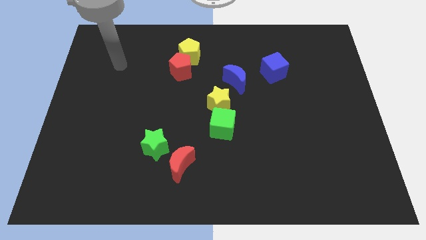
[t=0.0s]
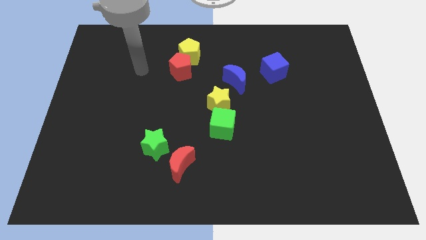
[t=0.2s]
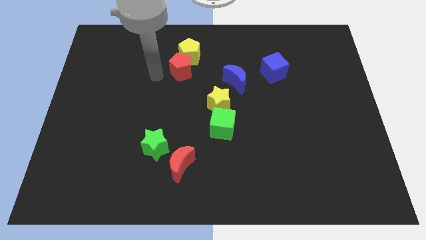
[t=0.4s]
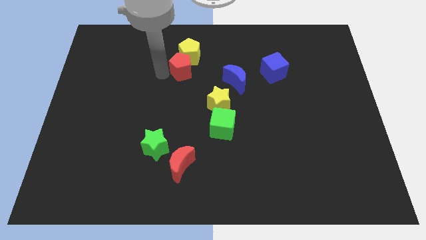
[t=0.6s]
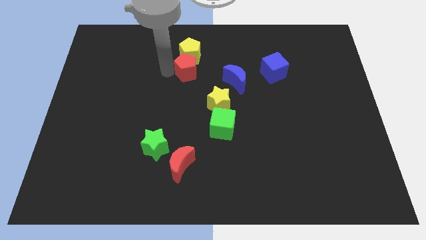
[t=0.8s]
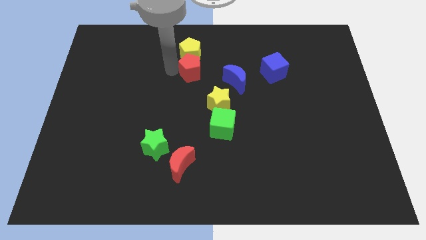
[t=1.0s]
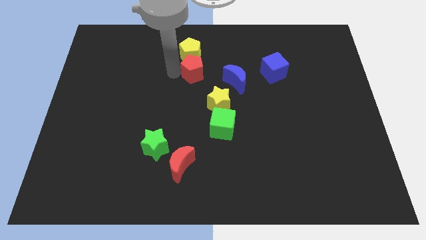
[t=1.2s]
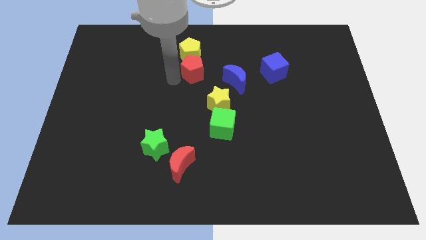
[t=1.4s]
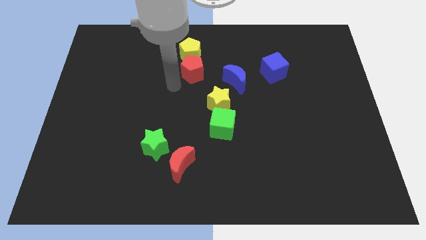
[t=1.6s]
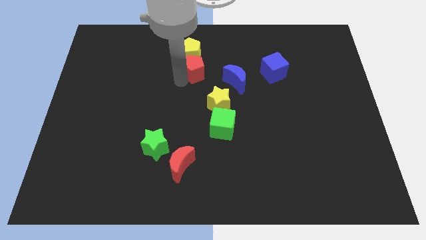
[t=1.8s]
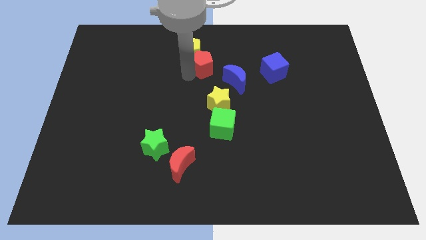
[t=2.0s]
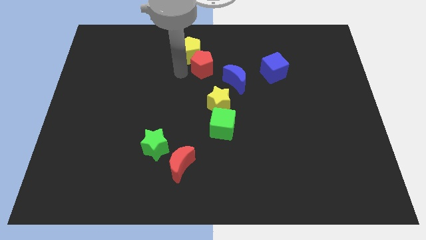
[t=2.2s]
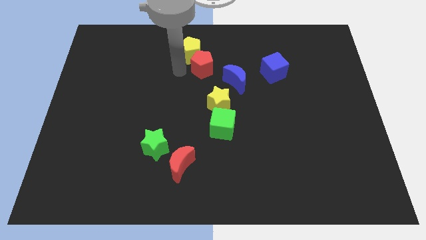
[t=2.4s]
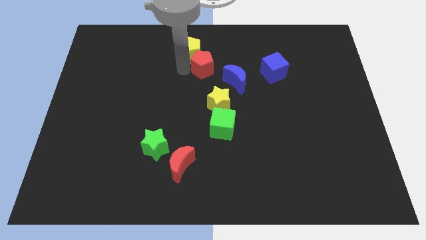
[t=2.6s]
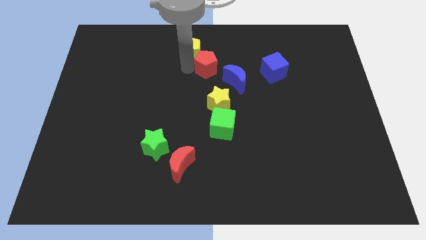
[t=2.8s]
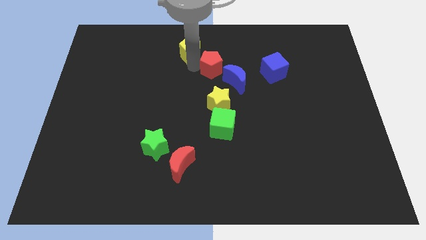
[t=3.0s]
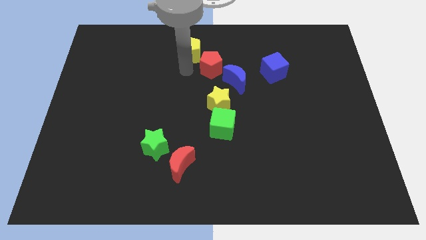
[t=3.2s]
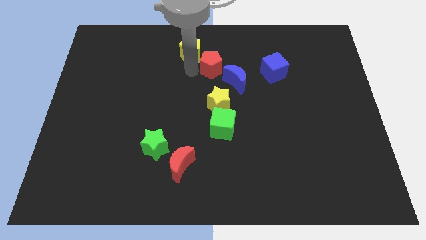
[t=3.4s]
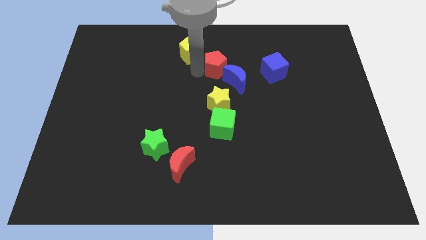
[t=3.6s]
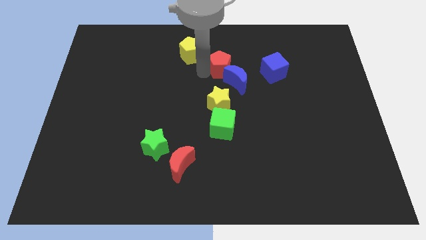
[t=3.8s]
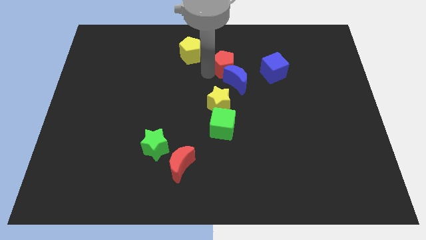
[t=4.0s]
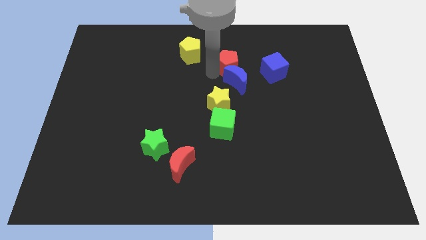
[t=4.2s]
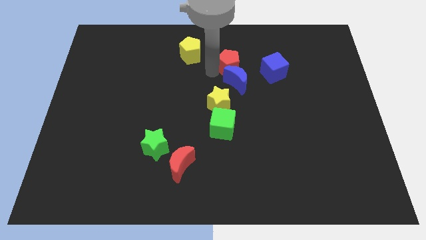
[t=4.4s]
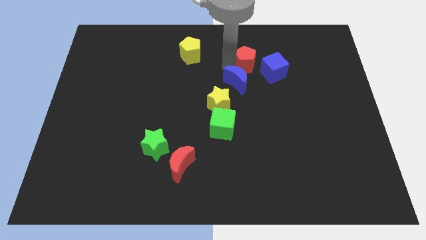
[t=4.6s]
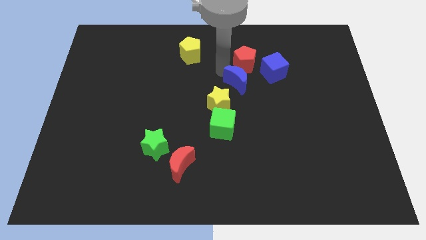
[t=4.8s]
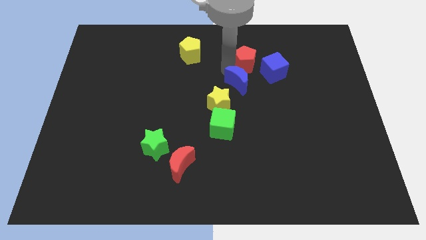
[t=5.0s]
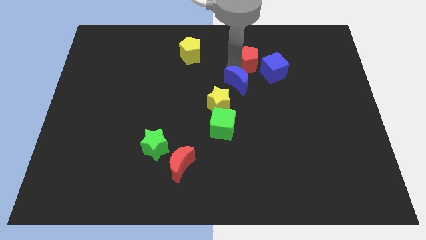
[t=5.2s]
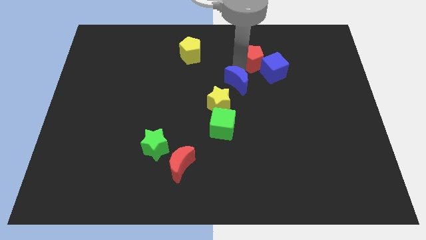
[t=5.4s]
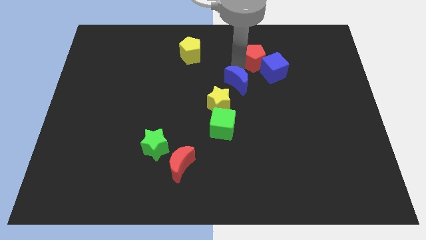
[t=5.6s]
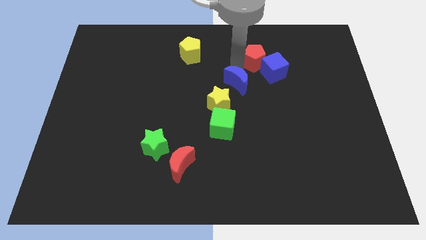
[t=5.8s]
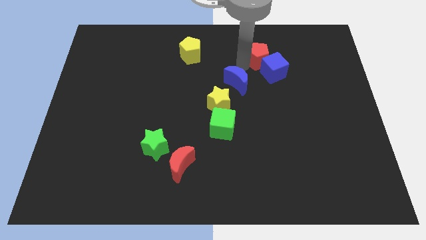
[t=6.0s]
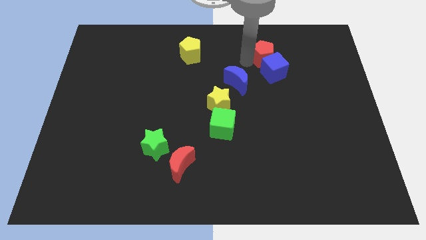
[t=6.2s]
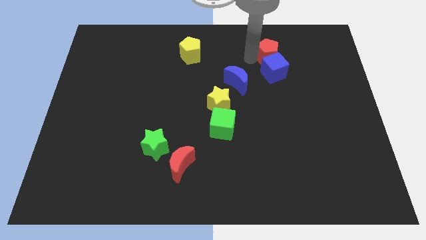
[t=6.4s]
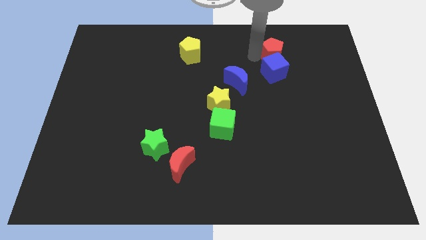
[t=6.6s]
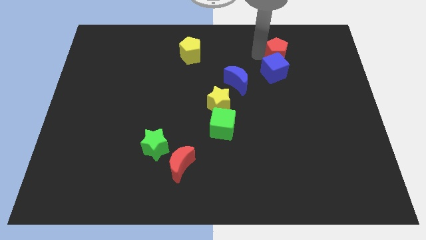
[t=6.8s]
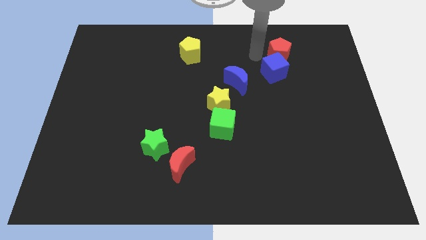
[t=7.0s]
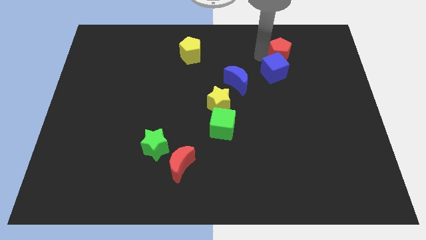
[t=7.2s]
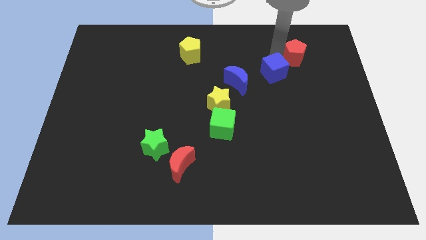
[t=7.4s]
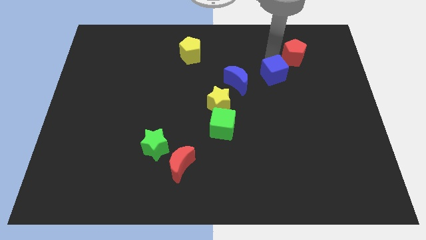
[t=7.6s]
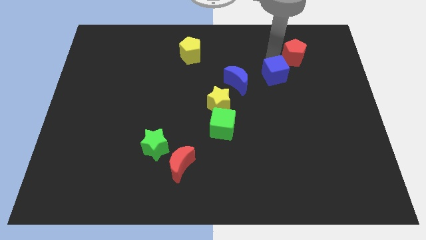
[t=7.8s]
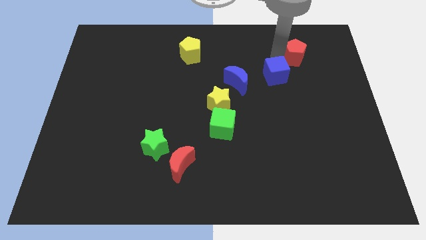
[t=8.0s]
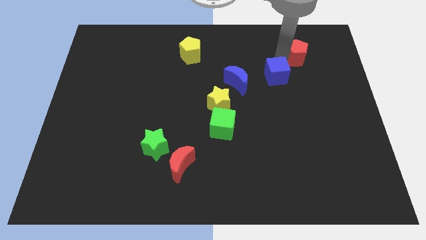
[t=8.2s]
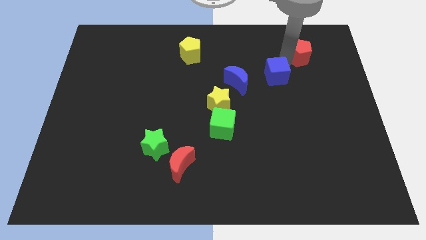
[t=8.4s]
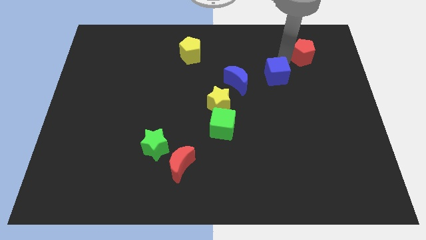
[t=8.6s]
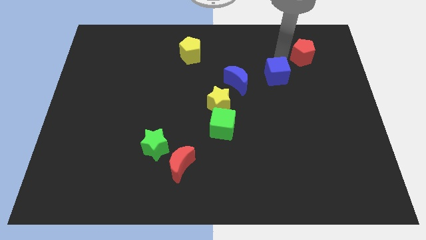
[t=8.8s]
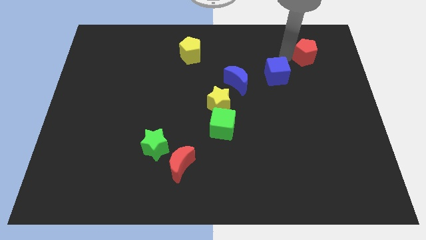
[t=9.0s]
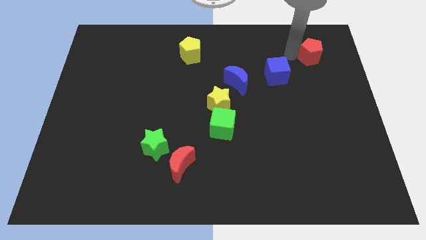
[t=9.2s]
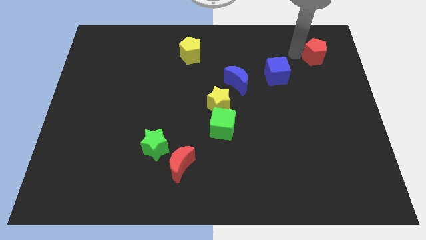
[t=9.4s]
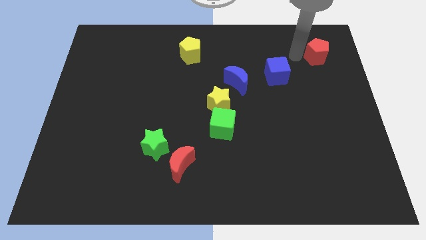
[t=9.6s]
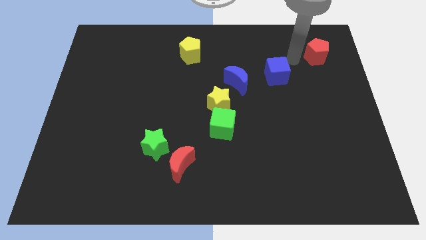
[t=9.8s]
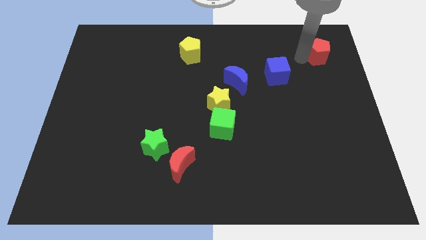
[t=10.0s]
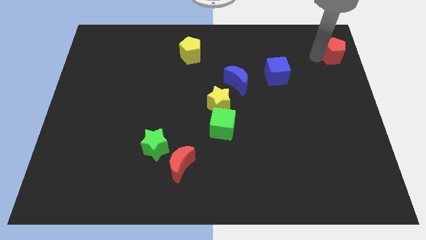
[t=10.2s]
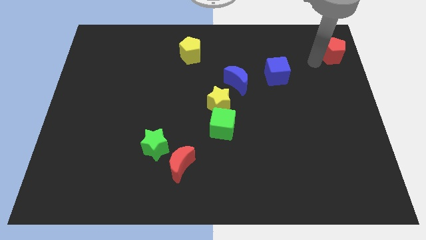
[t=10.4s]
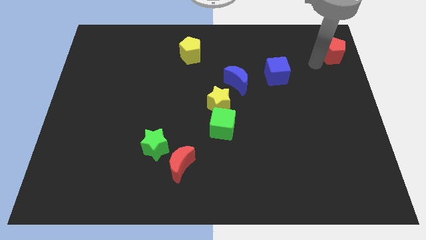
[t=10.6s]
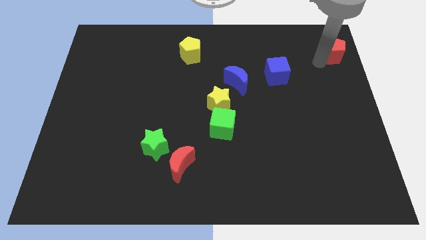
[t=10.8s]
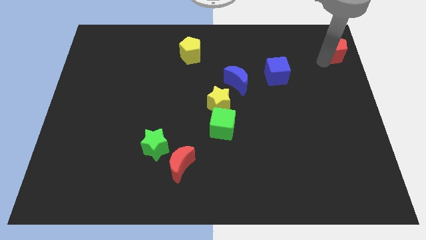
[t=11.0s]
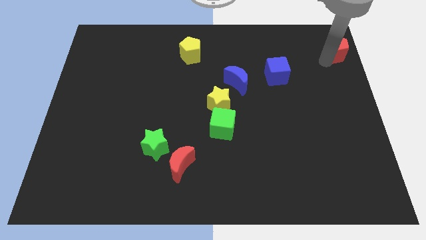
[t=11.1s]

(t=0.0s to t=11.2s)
slide the red pentagon to the top right of the board

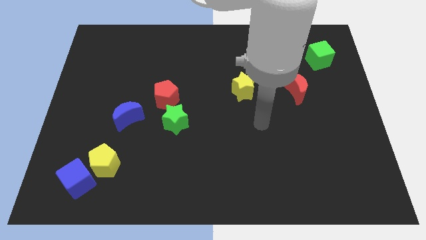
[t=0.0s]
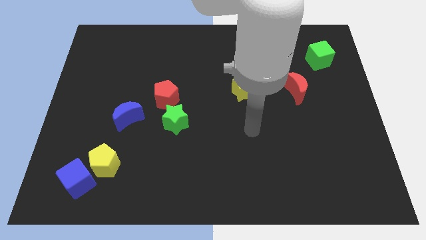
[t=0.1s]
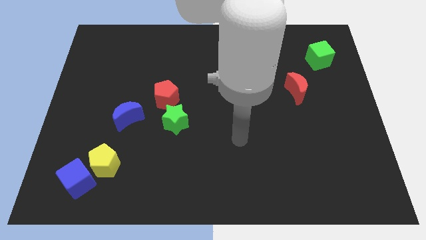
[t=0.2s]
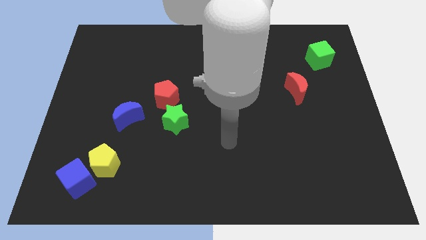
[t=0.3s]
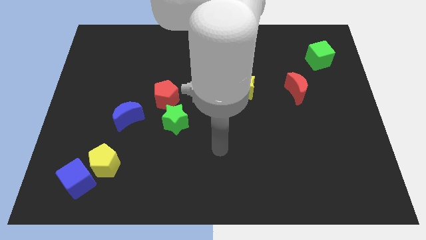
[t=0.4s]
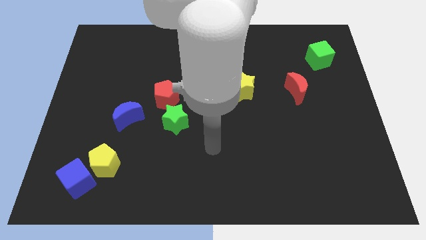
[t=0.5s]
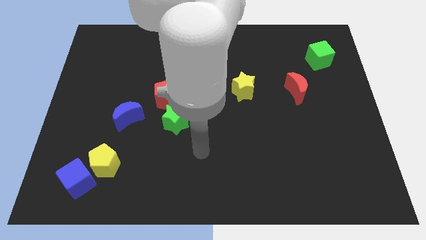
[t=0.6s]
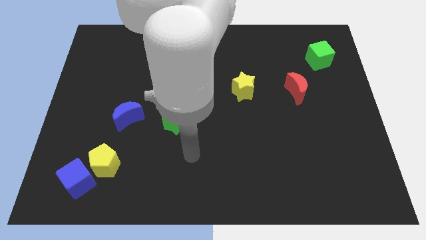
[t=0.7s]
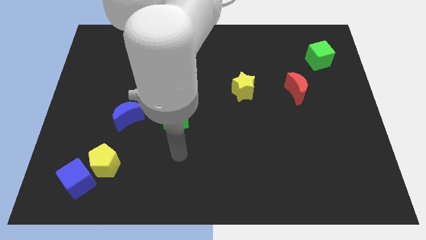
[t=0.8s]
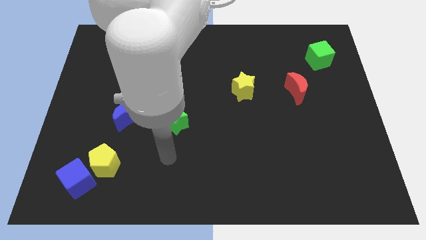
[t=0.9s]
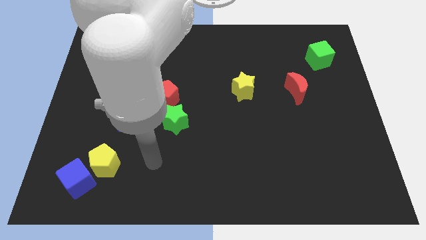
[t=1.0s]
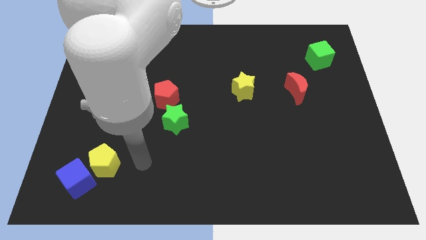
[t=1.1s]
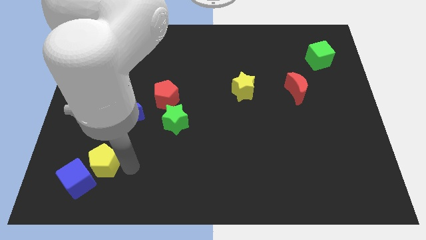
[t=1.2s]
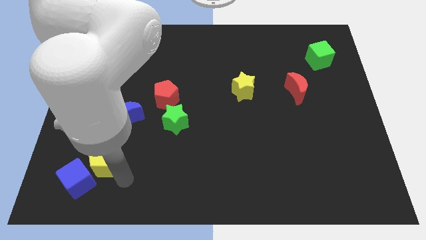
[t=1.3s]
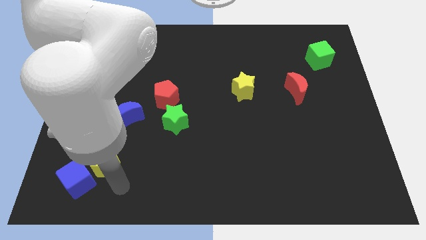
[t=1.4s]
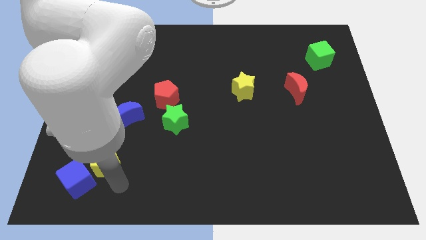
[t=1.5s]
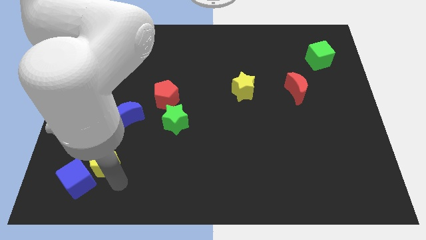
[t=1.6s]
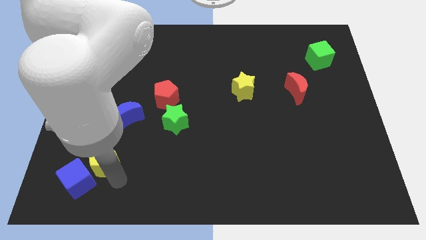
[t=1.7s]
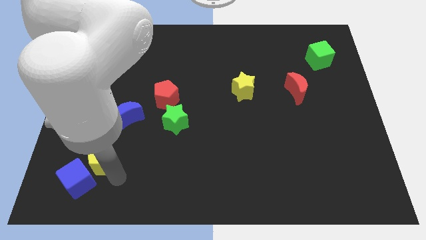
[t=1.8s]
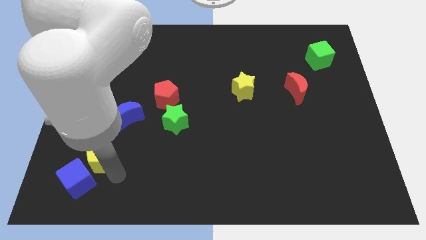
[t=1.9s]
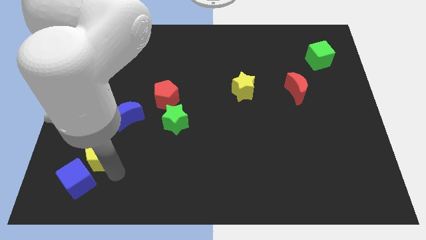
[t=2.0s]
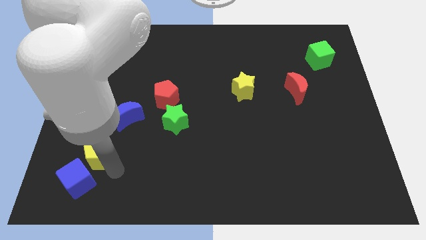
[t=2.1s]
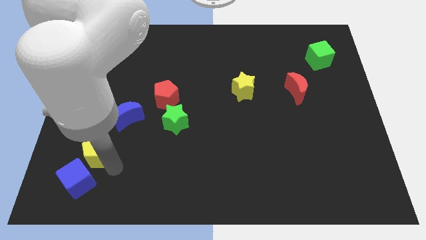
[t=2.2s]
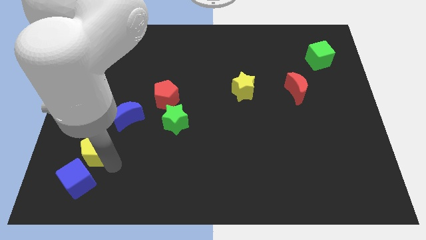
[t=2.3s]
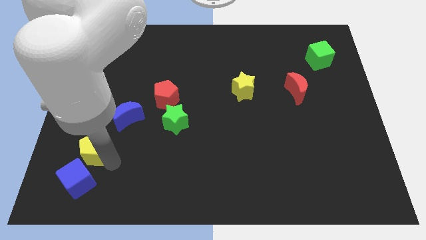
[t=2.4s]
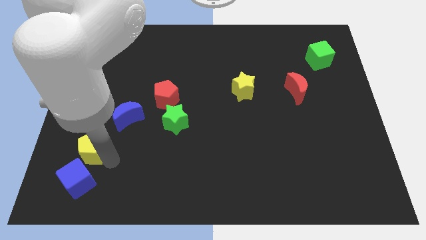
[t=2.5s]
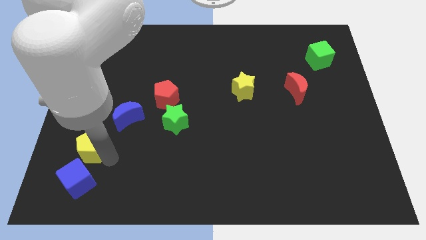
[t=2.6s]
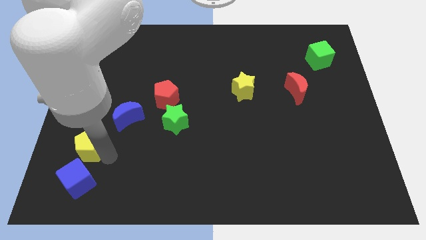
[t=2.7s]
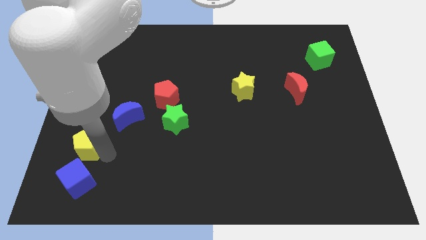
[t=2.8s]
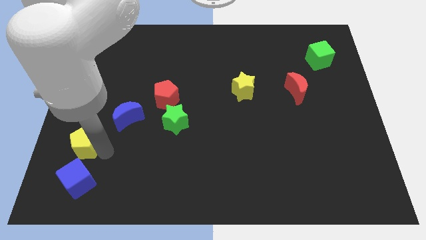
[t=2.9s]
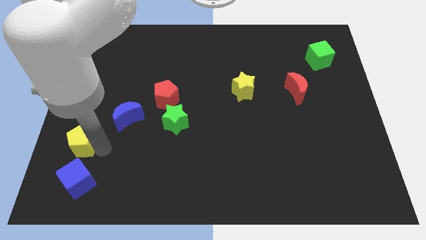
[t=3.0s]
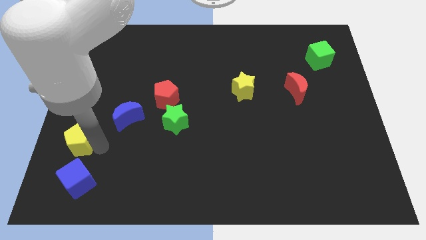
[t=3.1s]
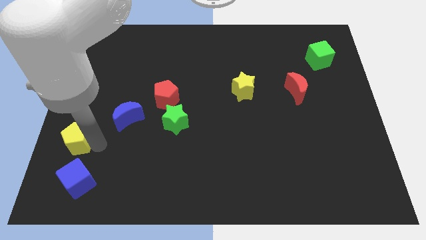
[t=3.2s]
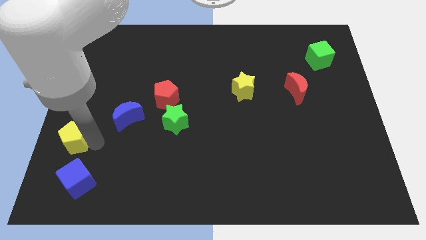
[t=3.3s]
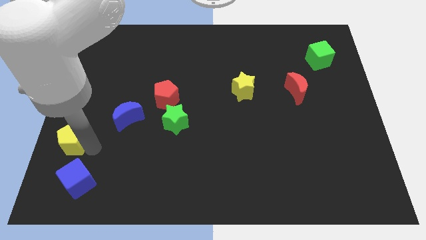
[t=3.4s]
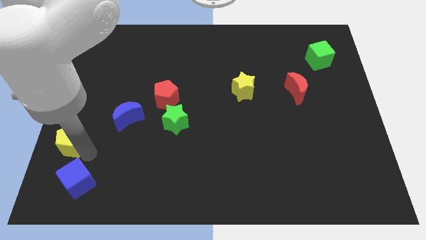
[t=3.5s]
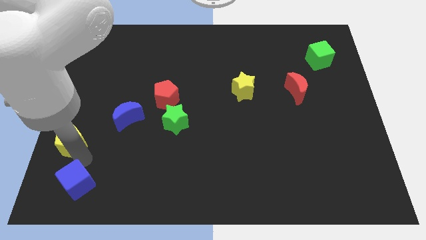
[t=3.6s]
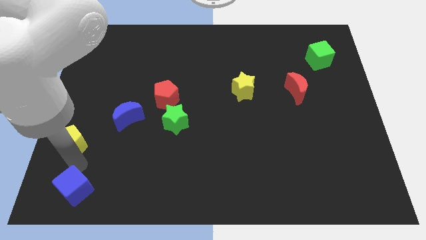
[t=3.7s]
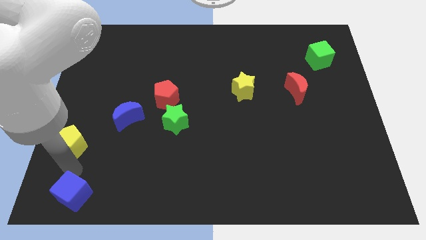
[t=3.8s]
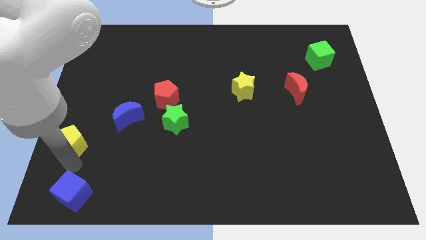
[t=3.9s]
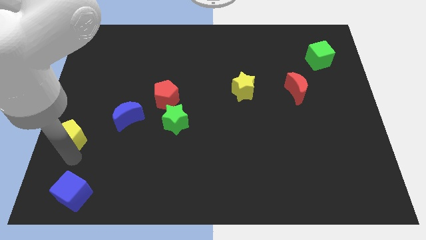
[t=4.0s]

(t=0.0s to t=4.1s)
slide the yellow pentagon to the center left
